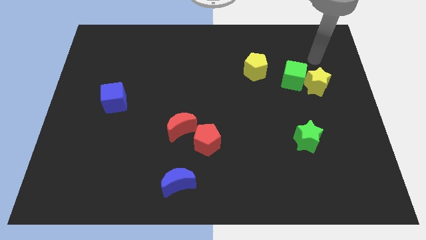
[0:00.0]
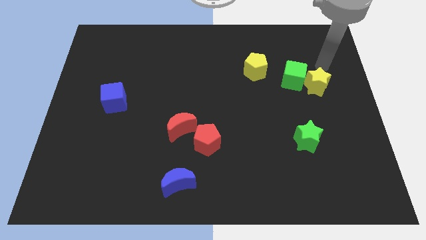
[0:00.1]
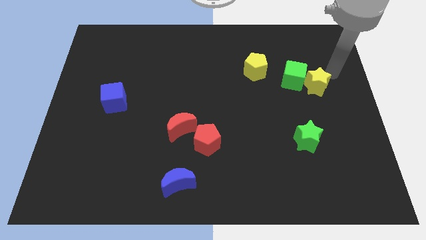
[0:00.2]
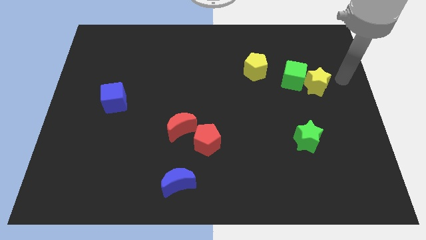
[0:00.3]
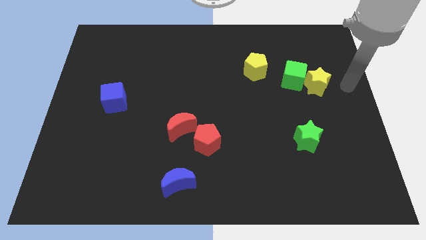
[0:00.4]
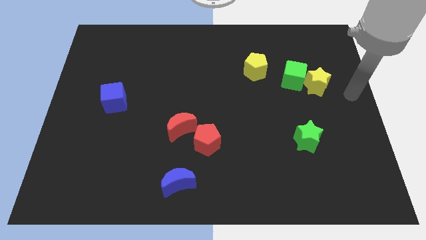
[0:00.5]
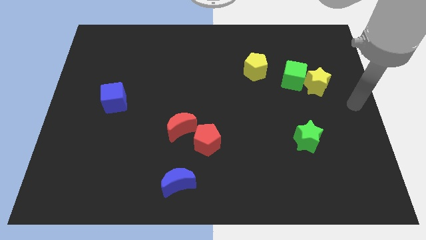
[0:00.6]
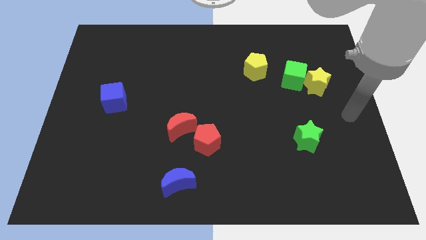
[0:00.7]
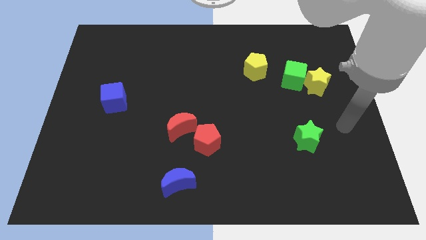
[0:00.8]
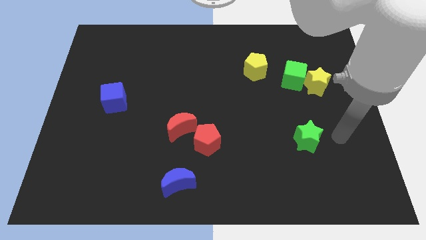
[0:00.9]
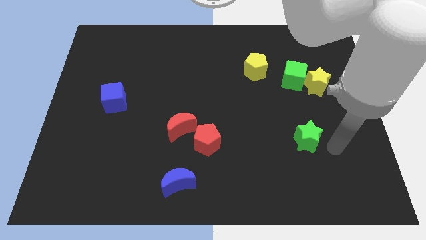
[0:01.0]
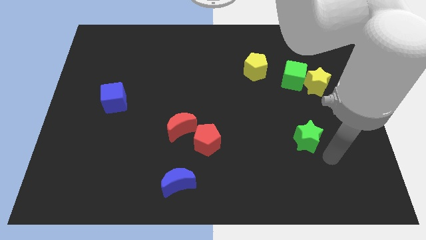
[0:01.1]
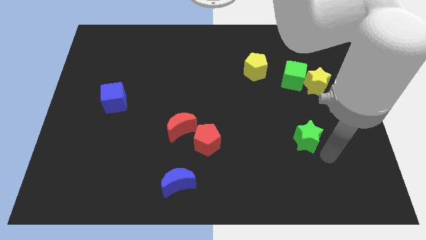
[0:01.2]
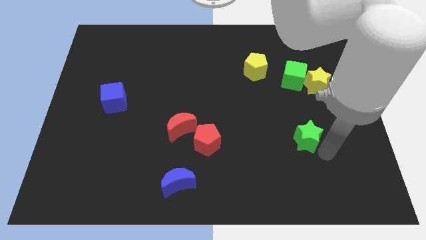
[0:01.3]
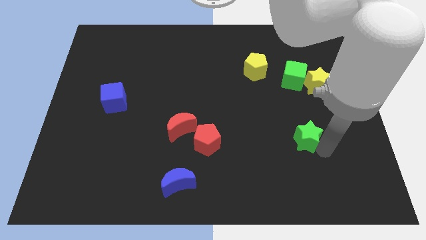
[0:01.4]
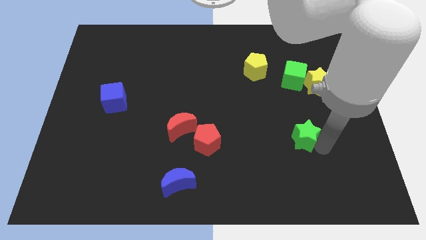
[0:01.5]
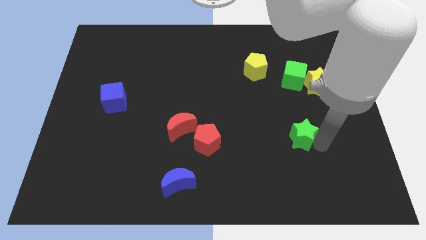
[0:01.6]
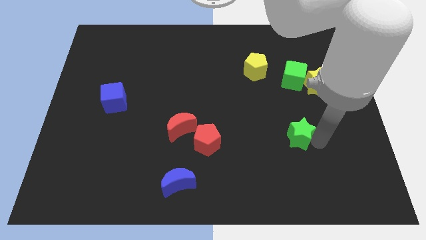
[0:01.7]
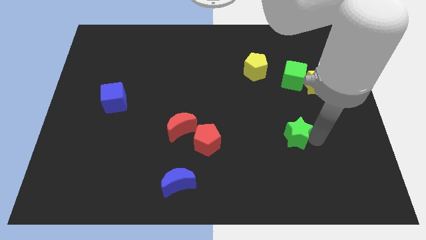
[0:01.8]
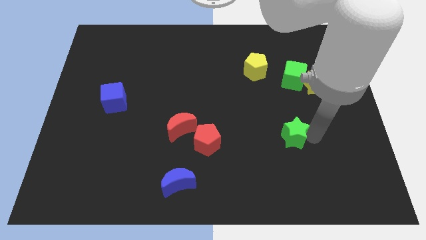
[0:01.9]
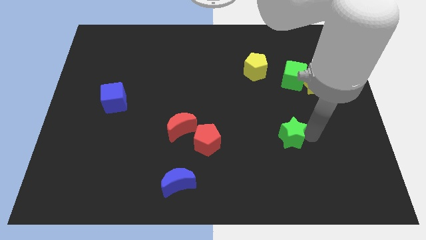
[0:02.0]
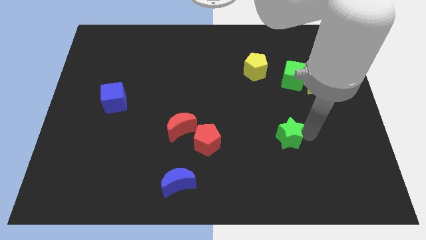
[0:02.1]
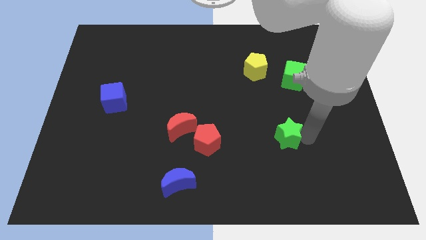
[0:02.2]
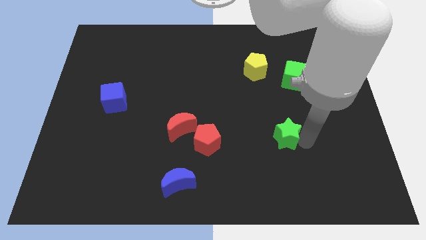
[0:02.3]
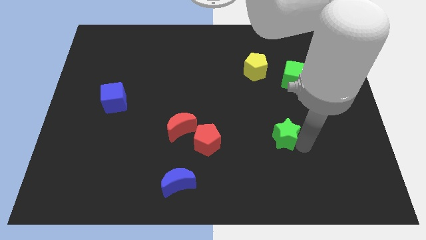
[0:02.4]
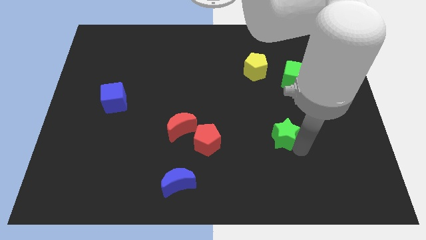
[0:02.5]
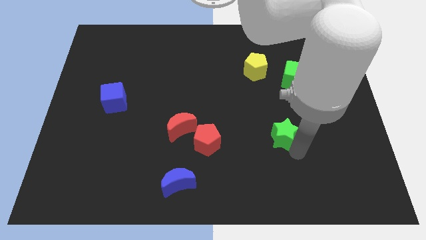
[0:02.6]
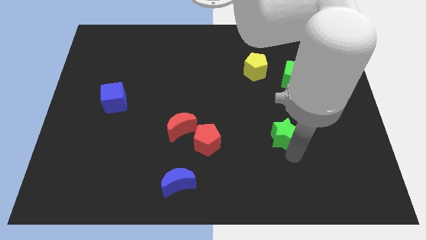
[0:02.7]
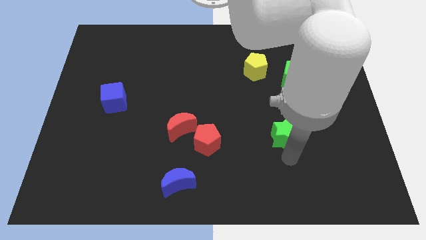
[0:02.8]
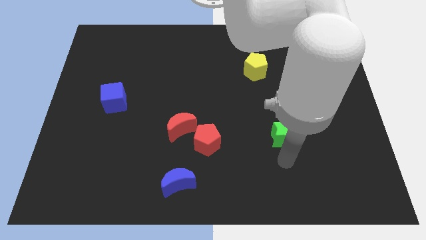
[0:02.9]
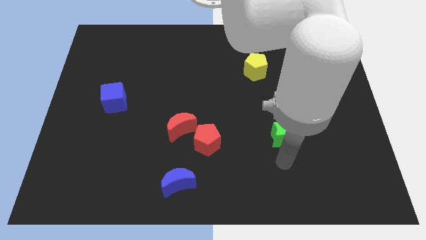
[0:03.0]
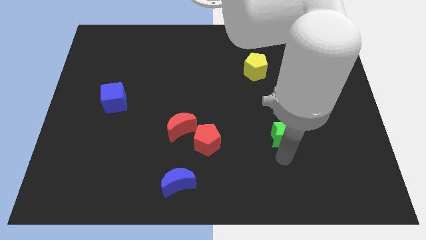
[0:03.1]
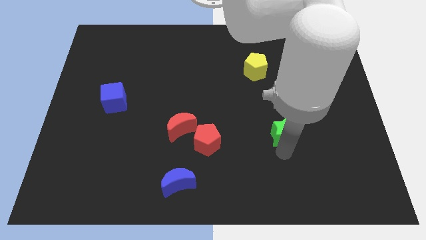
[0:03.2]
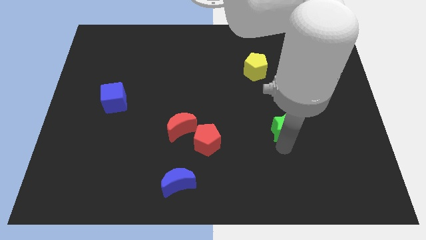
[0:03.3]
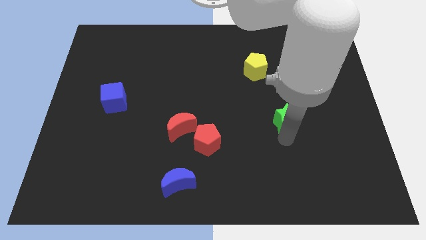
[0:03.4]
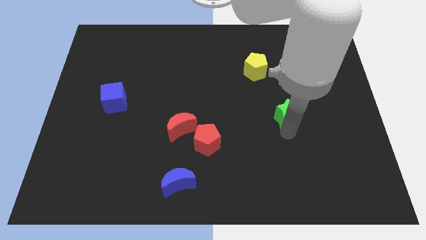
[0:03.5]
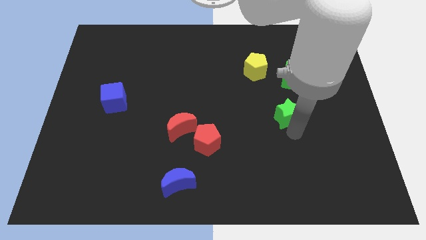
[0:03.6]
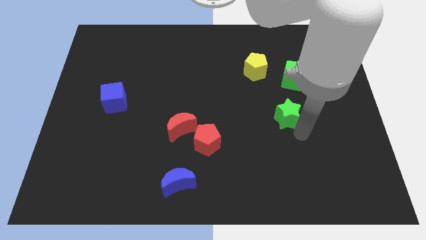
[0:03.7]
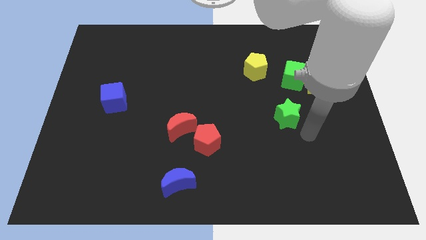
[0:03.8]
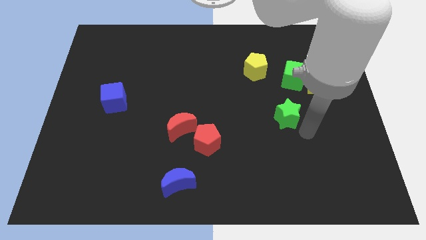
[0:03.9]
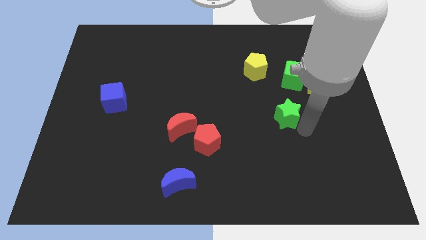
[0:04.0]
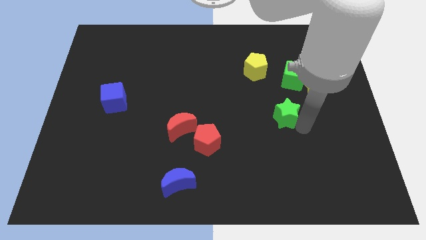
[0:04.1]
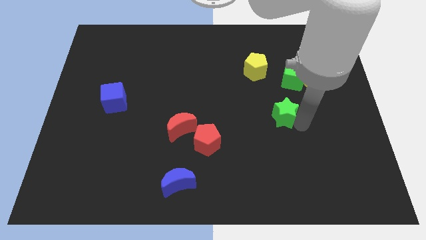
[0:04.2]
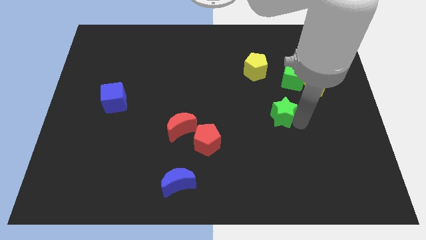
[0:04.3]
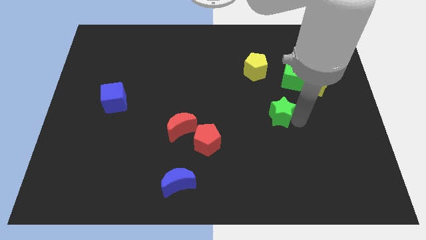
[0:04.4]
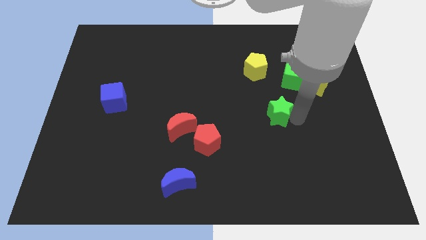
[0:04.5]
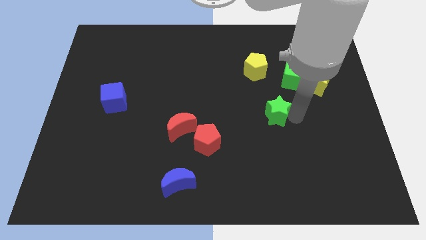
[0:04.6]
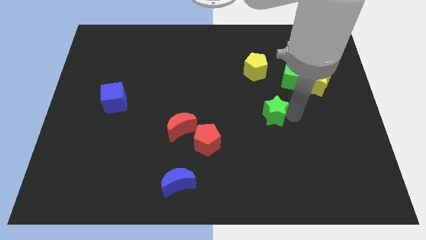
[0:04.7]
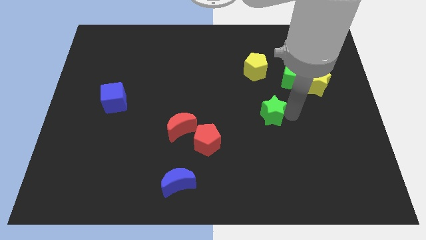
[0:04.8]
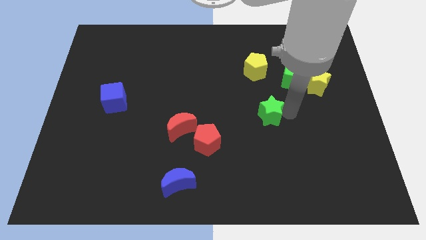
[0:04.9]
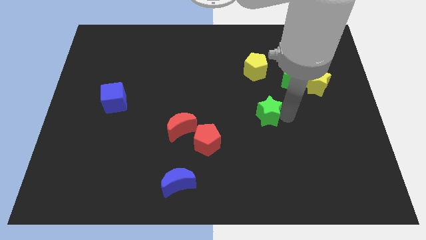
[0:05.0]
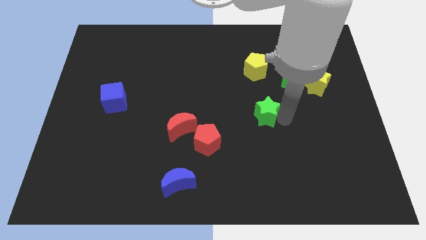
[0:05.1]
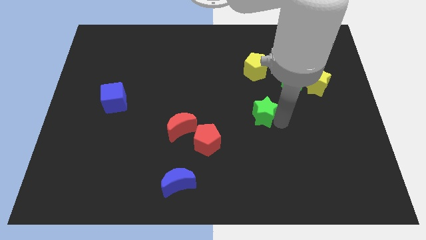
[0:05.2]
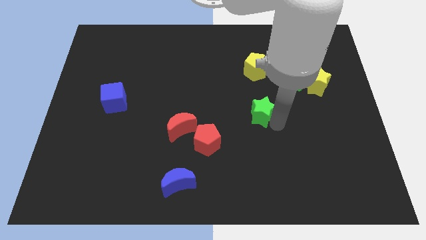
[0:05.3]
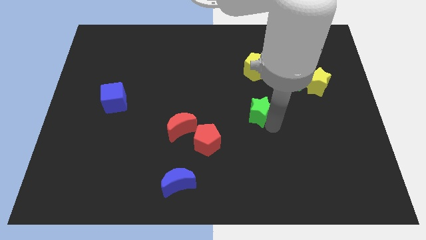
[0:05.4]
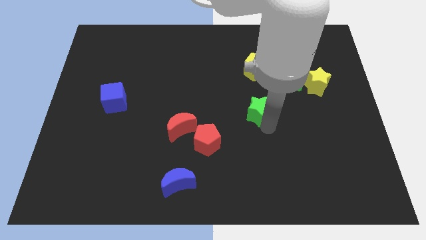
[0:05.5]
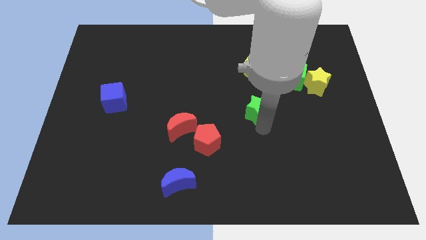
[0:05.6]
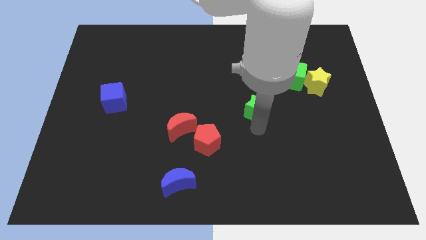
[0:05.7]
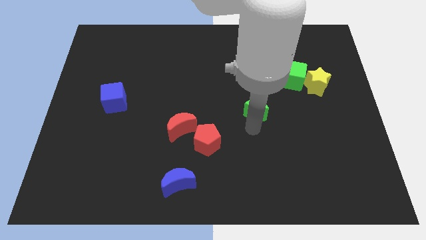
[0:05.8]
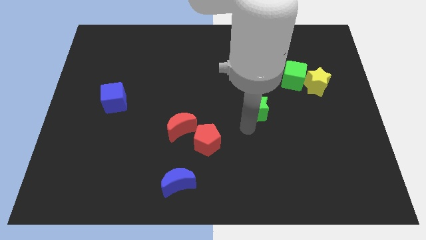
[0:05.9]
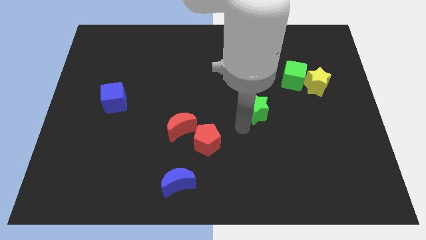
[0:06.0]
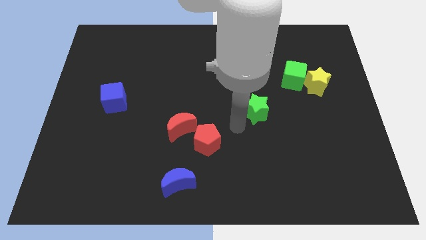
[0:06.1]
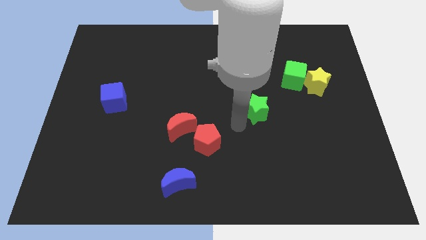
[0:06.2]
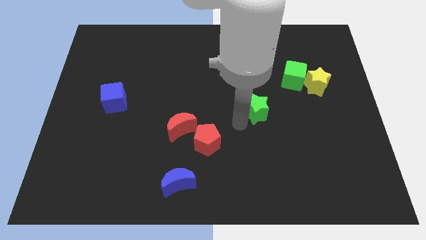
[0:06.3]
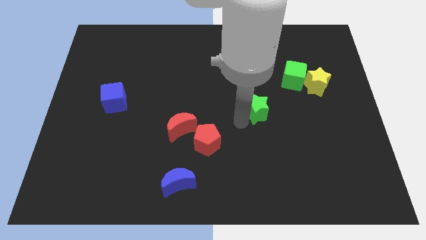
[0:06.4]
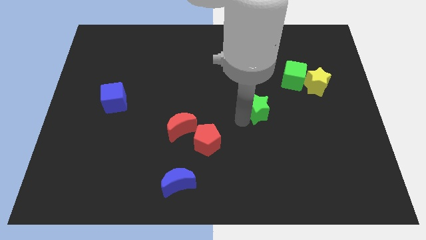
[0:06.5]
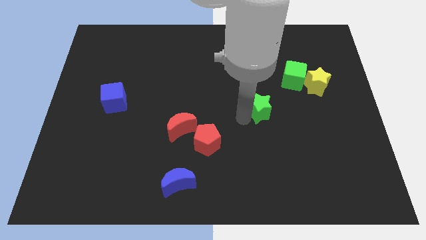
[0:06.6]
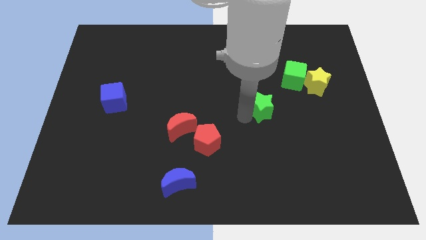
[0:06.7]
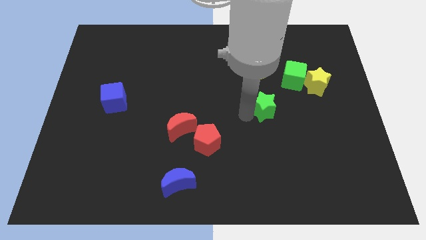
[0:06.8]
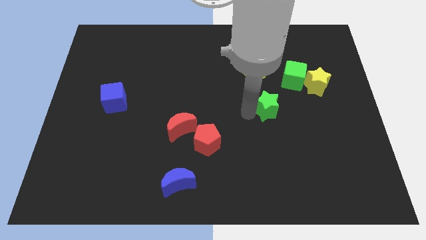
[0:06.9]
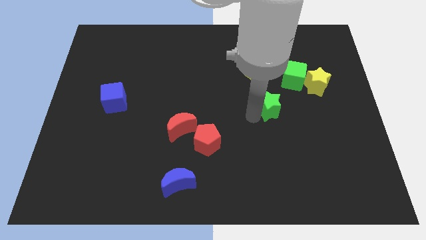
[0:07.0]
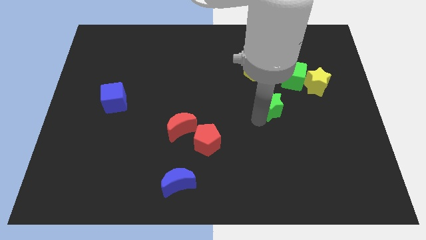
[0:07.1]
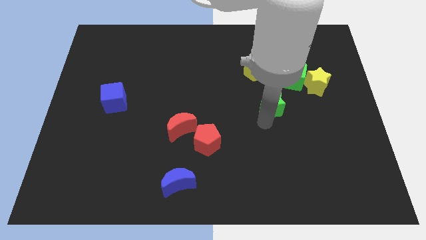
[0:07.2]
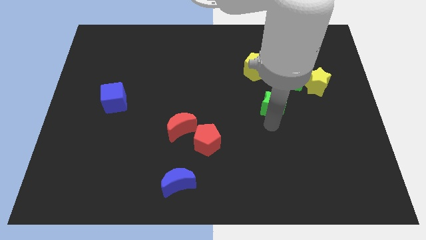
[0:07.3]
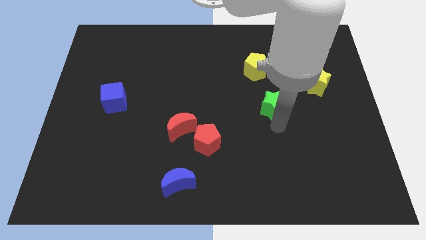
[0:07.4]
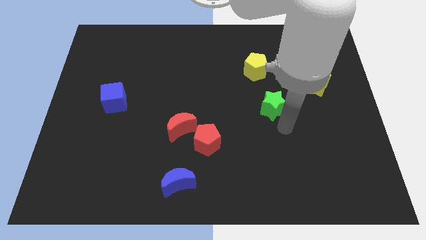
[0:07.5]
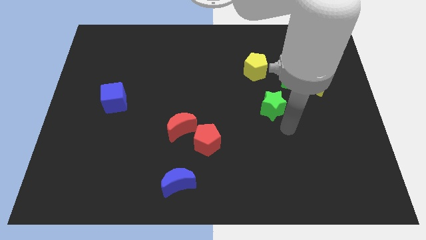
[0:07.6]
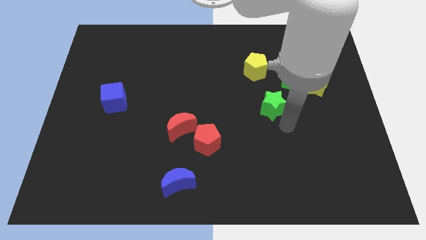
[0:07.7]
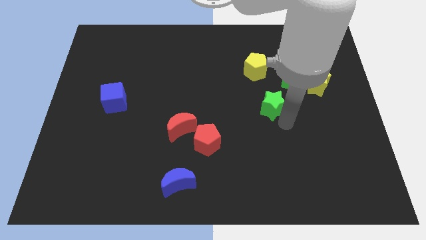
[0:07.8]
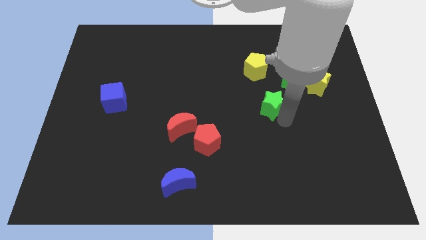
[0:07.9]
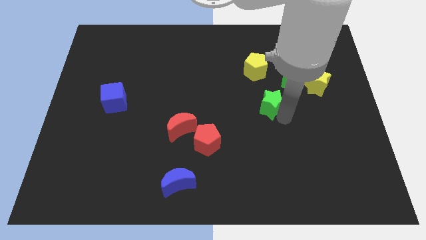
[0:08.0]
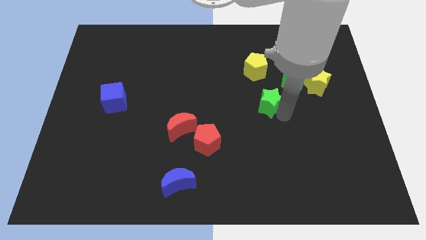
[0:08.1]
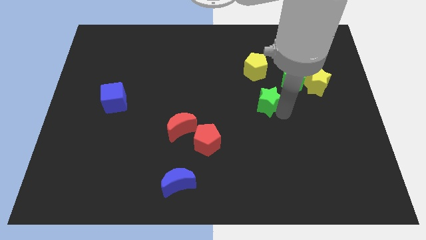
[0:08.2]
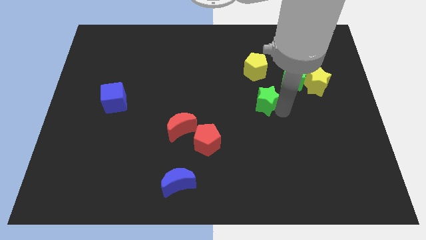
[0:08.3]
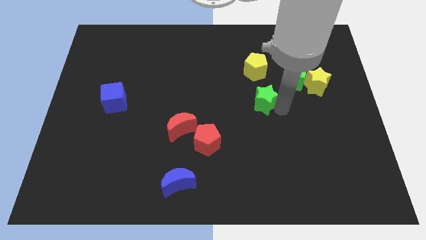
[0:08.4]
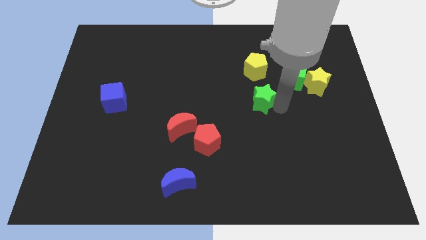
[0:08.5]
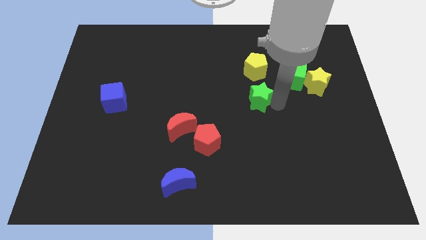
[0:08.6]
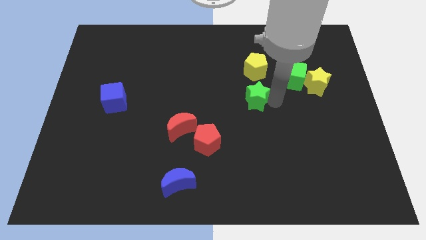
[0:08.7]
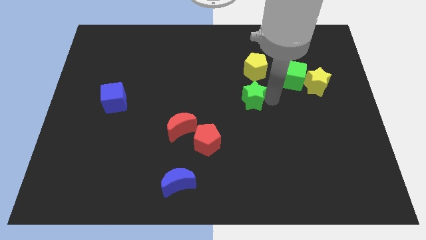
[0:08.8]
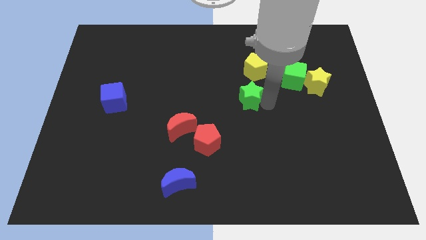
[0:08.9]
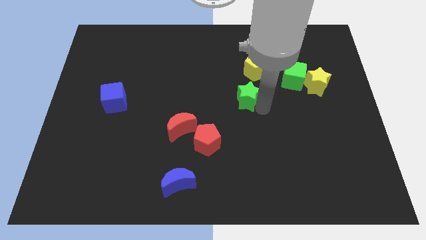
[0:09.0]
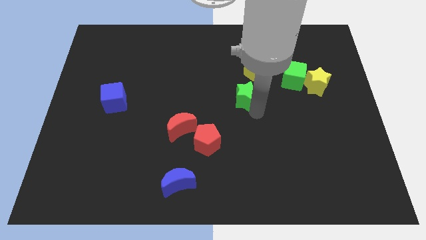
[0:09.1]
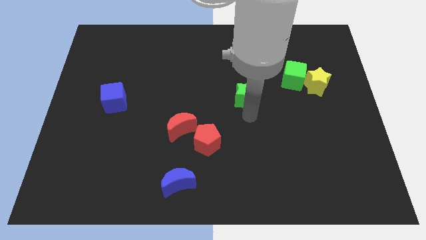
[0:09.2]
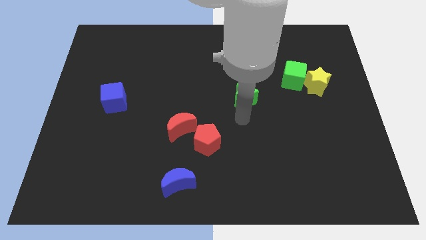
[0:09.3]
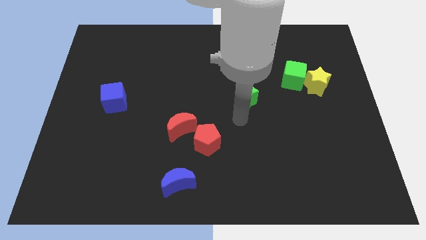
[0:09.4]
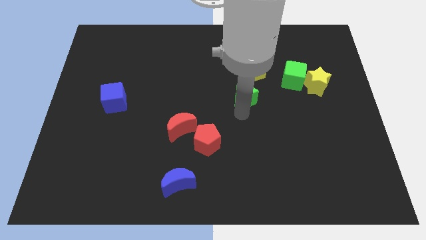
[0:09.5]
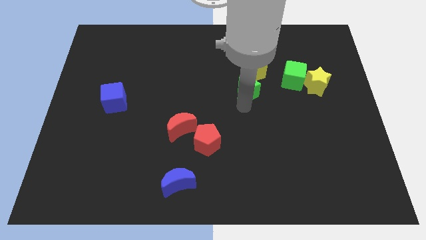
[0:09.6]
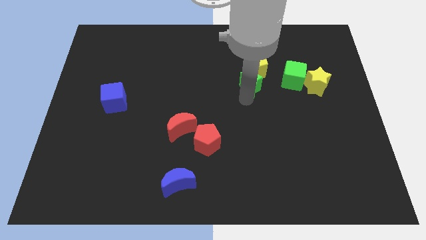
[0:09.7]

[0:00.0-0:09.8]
push the green star next to the yellow pentagon
